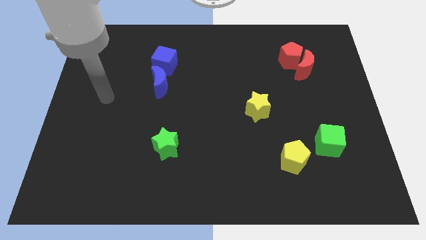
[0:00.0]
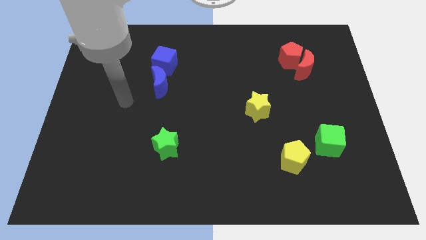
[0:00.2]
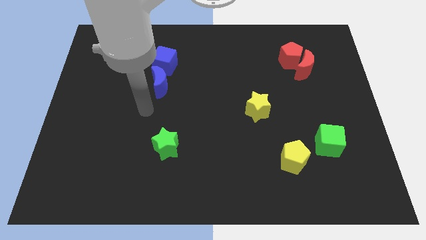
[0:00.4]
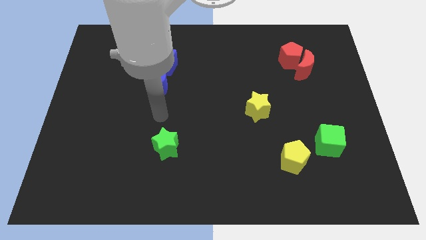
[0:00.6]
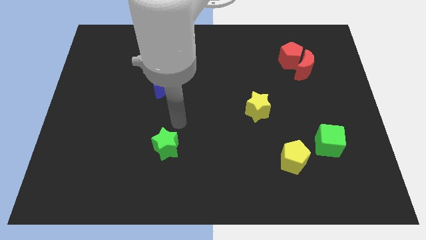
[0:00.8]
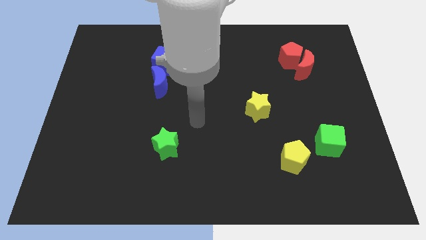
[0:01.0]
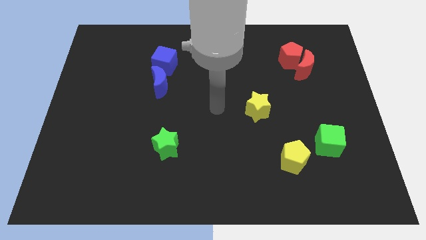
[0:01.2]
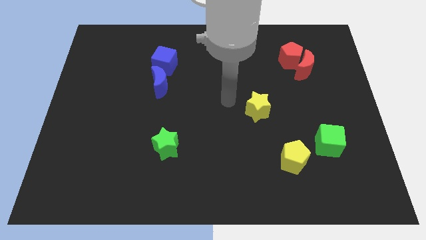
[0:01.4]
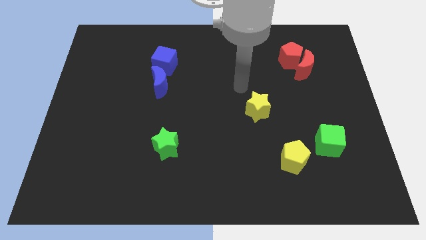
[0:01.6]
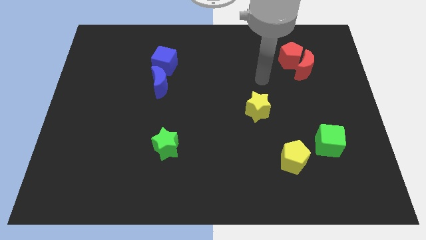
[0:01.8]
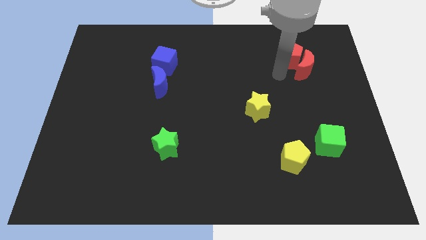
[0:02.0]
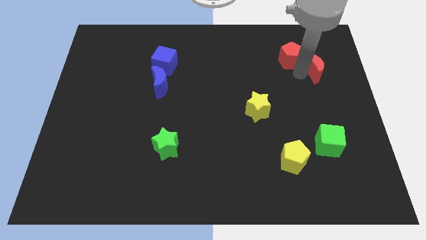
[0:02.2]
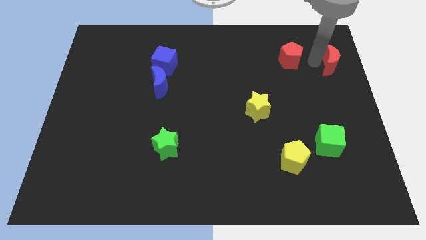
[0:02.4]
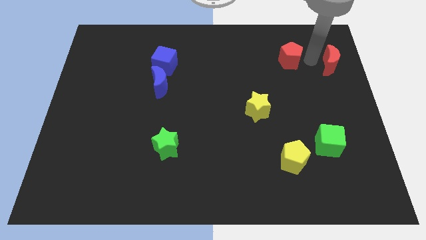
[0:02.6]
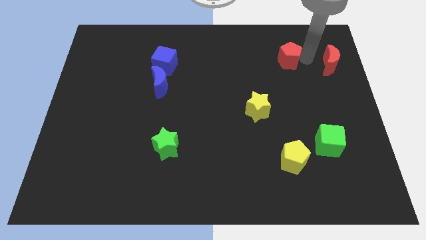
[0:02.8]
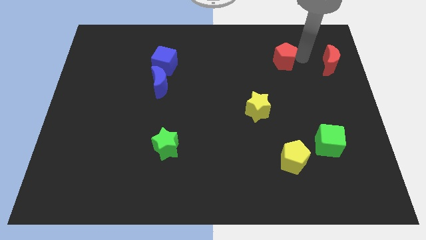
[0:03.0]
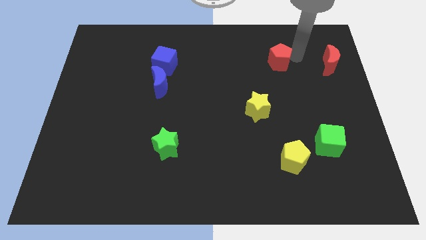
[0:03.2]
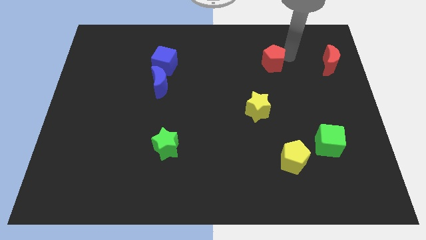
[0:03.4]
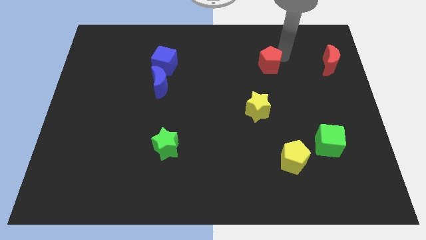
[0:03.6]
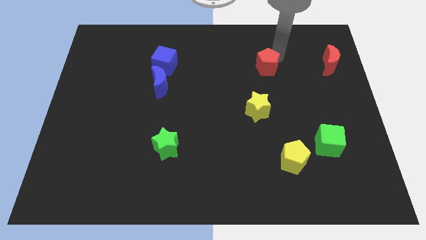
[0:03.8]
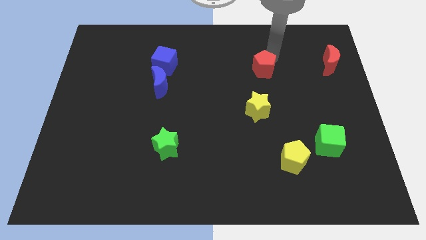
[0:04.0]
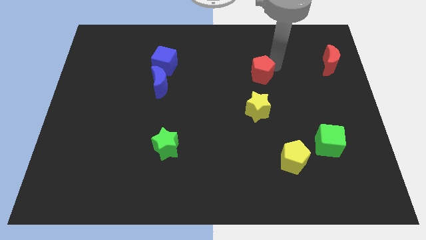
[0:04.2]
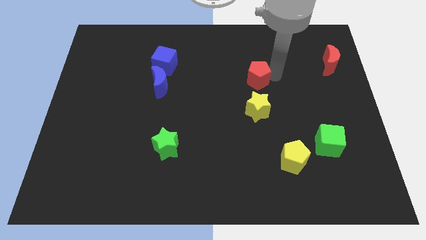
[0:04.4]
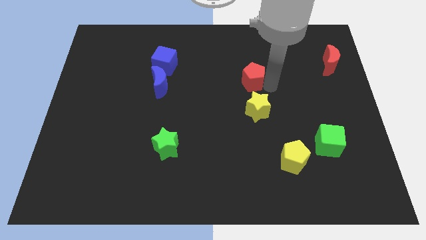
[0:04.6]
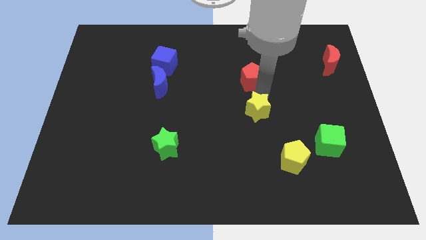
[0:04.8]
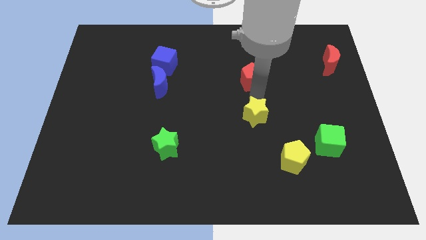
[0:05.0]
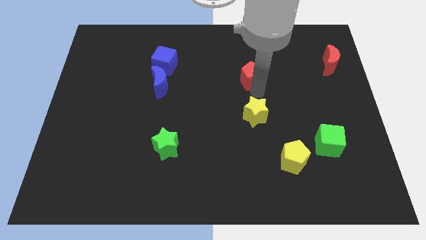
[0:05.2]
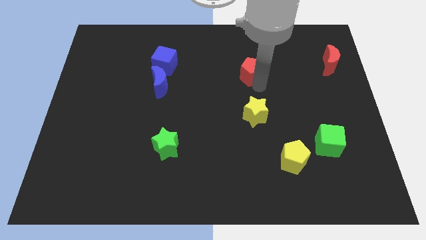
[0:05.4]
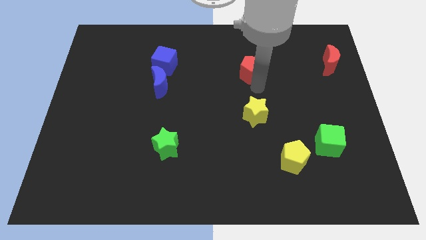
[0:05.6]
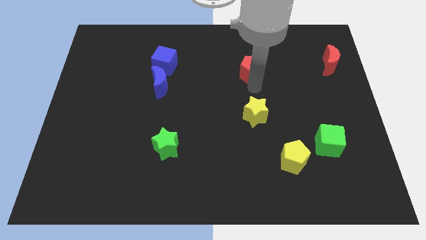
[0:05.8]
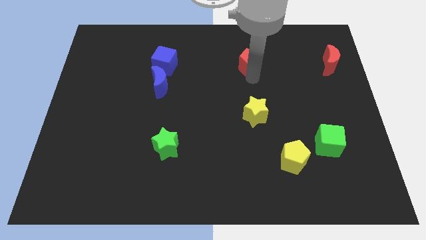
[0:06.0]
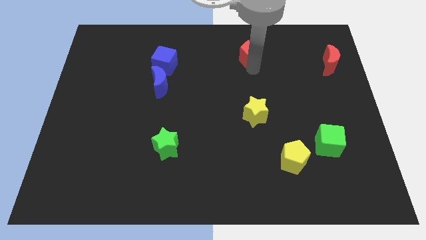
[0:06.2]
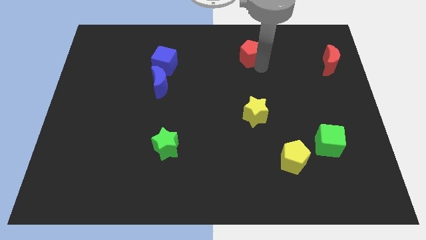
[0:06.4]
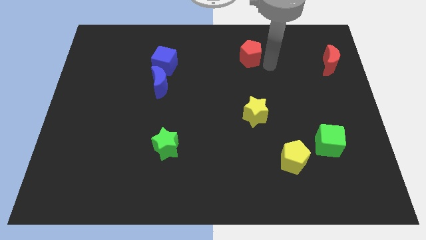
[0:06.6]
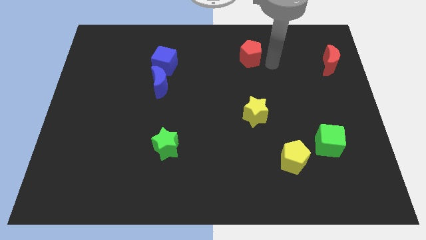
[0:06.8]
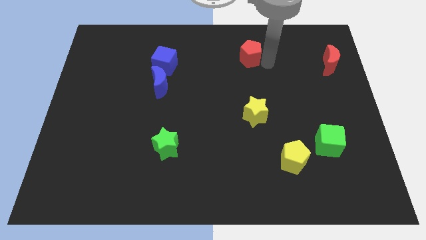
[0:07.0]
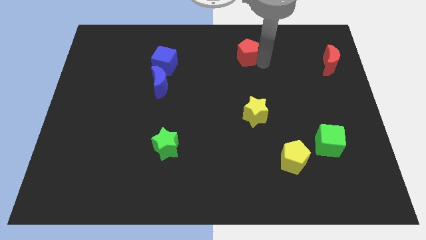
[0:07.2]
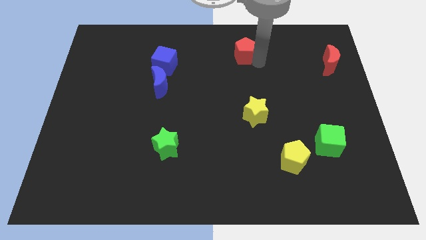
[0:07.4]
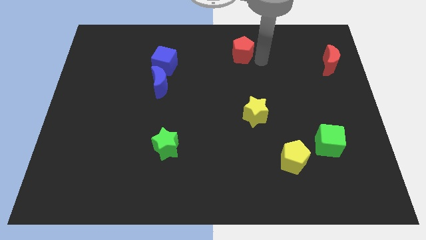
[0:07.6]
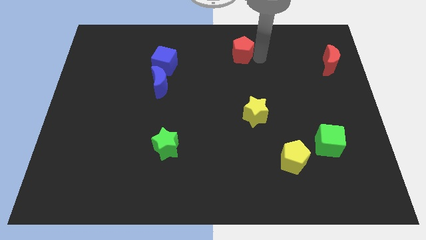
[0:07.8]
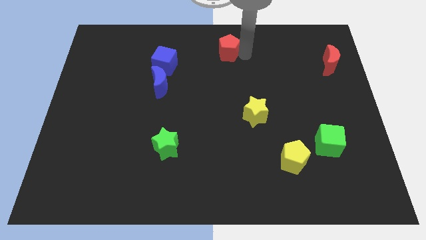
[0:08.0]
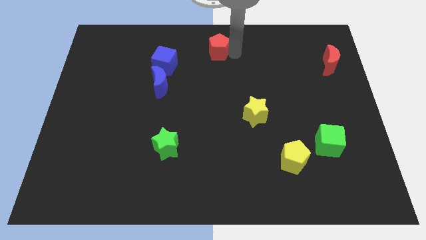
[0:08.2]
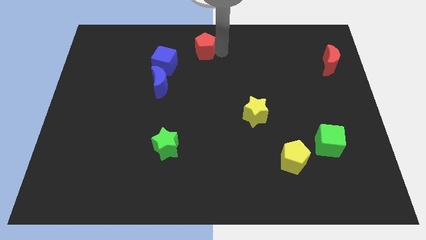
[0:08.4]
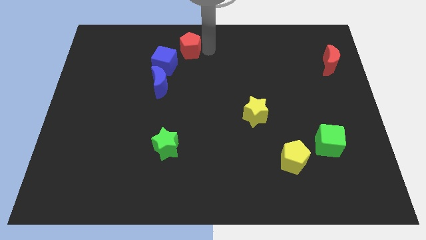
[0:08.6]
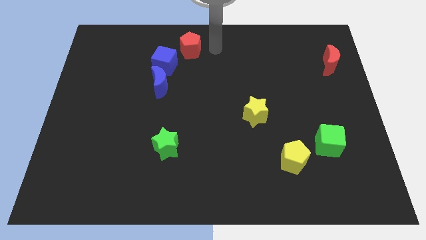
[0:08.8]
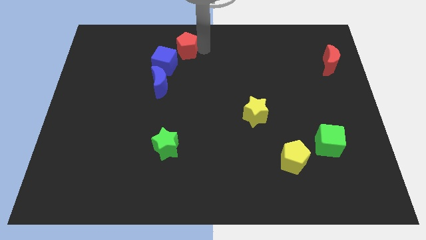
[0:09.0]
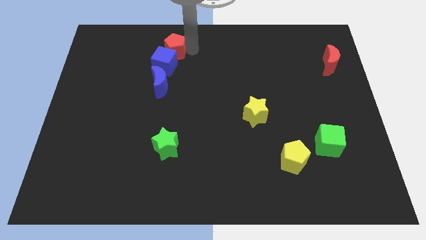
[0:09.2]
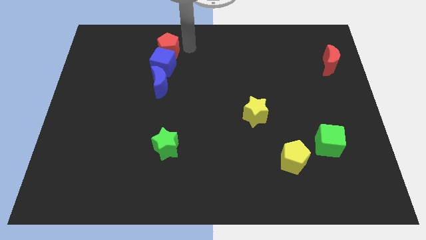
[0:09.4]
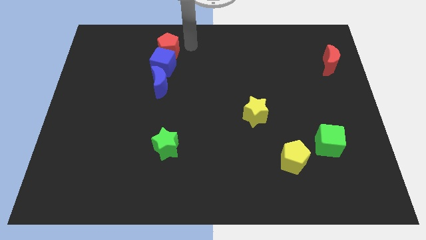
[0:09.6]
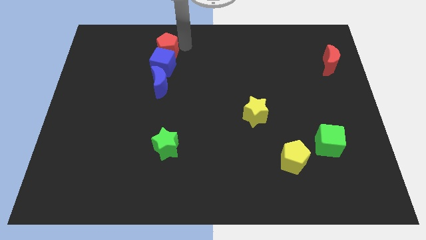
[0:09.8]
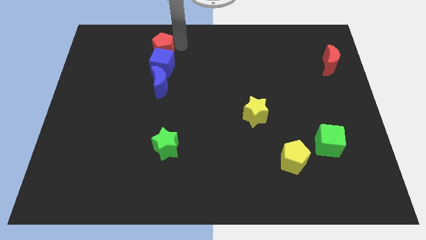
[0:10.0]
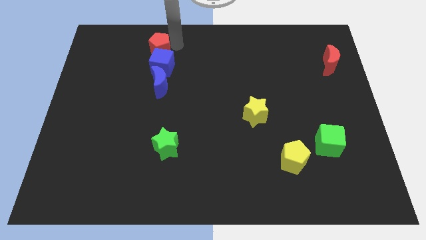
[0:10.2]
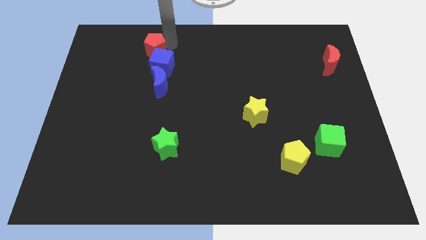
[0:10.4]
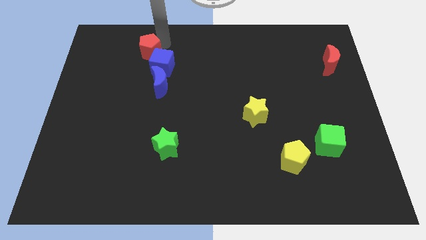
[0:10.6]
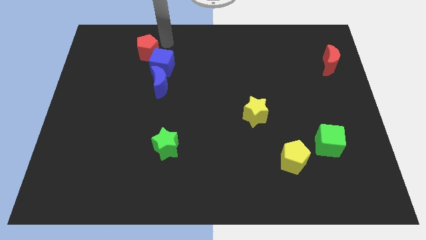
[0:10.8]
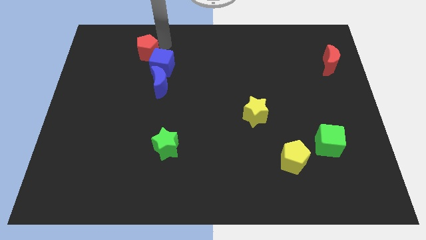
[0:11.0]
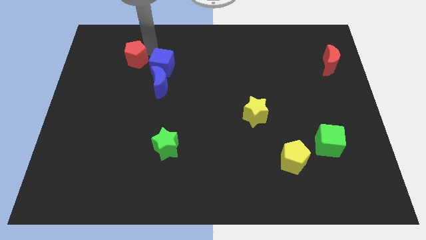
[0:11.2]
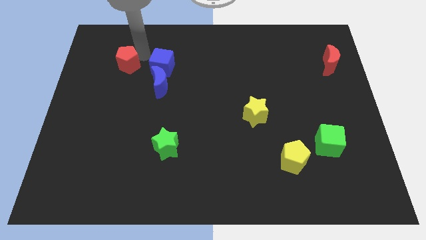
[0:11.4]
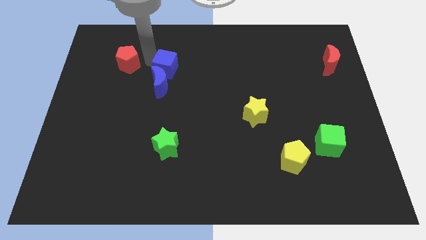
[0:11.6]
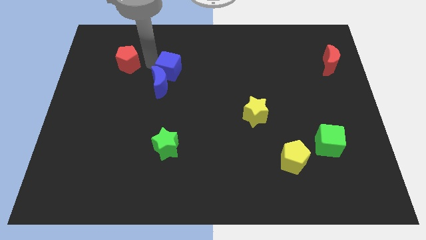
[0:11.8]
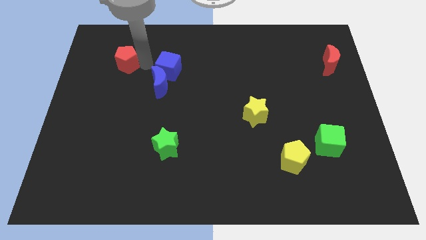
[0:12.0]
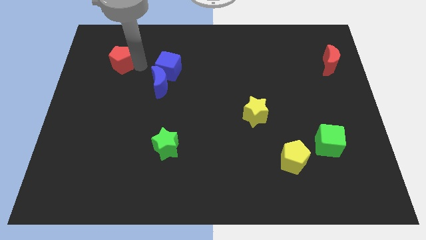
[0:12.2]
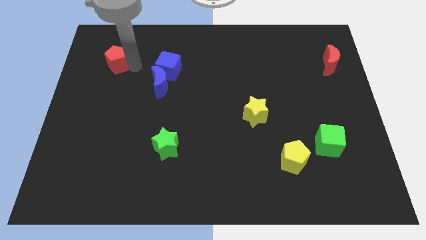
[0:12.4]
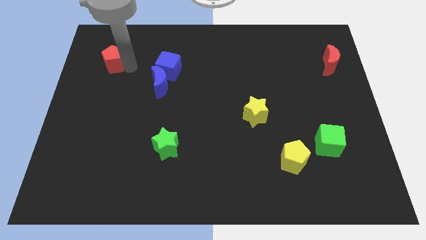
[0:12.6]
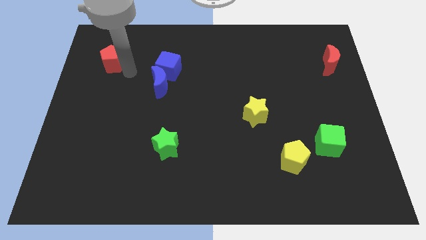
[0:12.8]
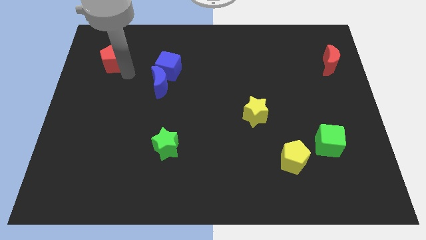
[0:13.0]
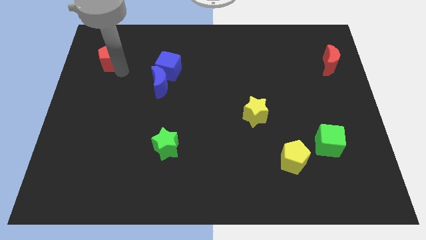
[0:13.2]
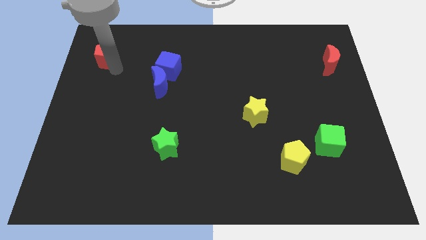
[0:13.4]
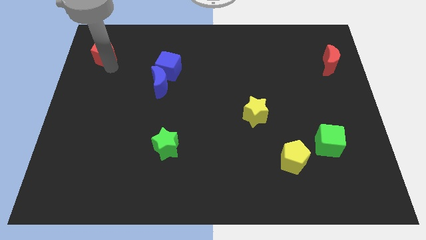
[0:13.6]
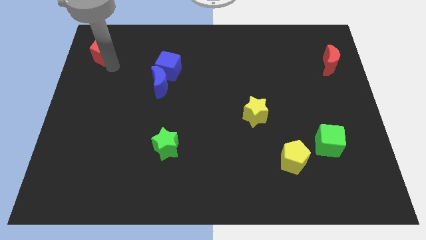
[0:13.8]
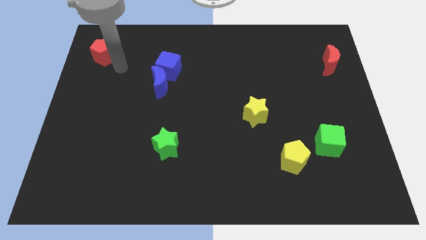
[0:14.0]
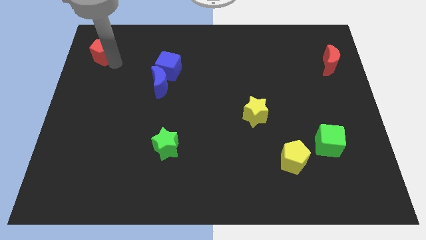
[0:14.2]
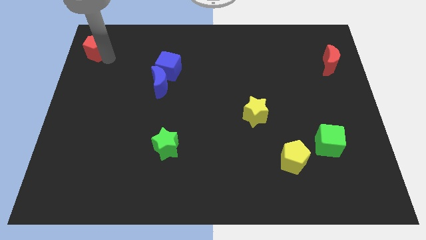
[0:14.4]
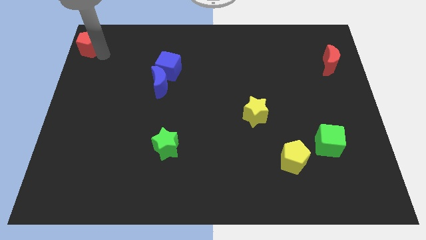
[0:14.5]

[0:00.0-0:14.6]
push the red pentagon to the upper left corner
